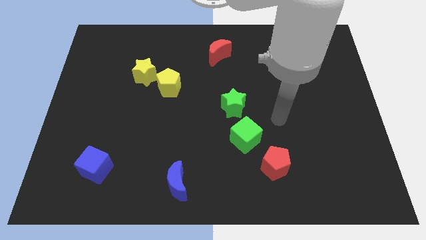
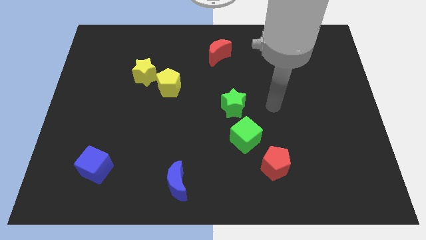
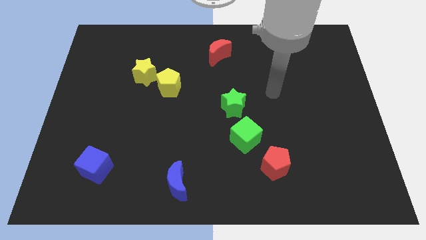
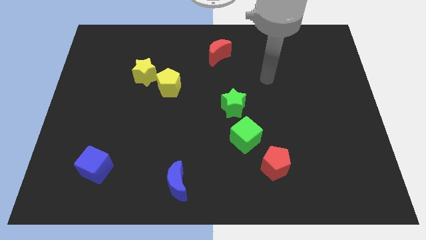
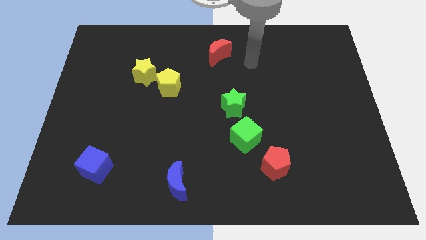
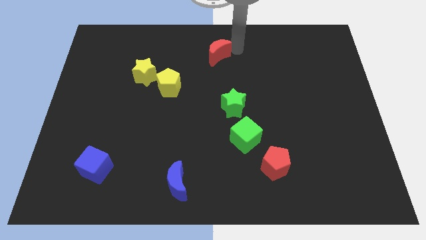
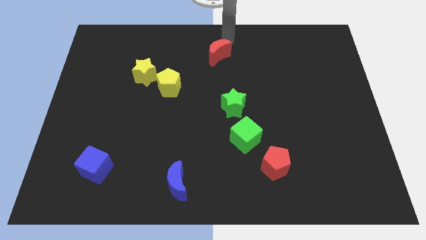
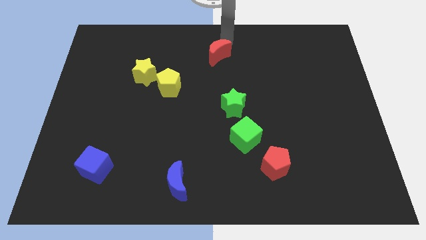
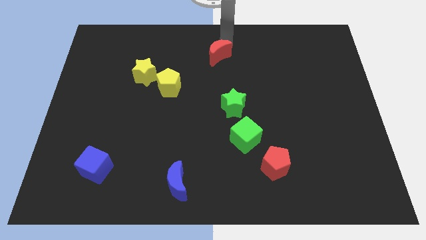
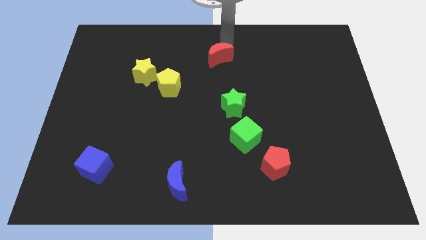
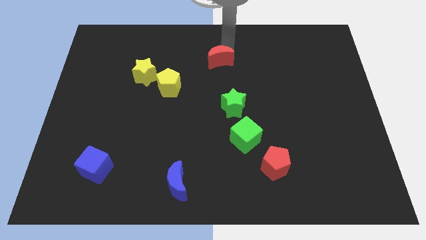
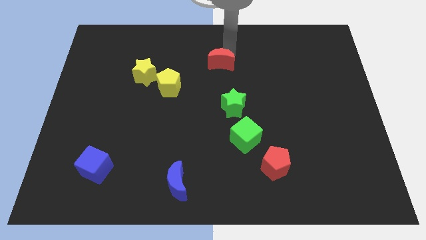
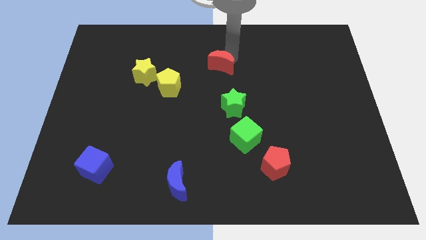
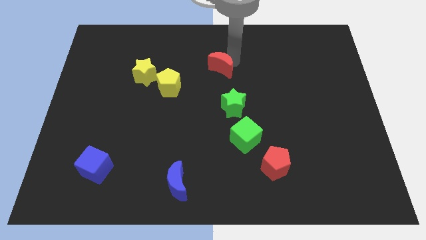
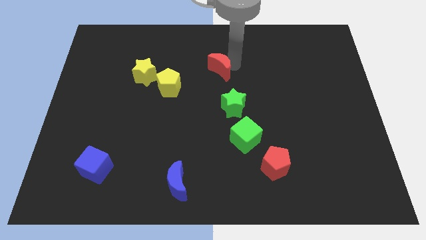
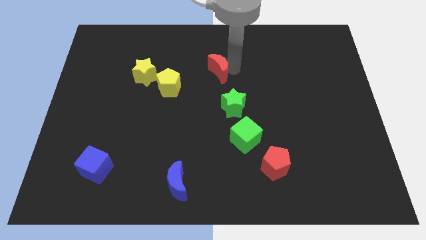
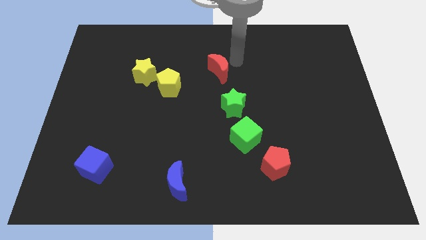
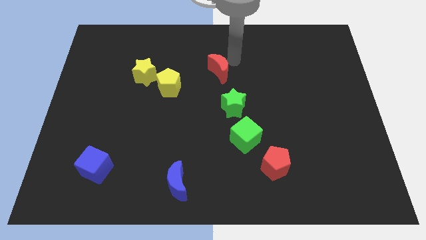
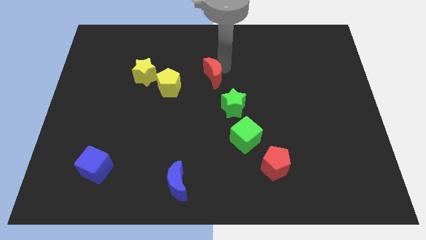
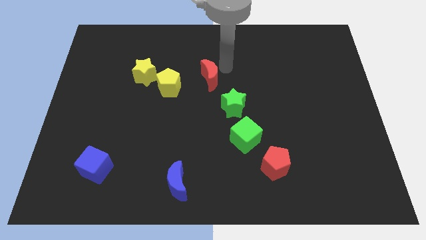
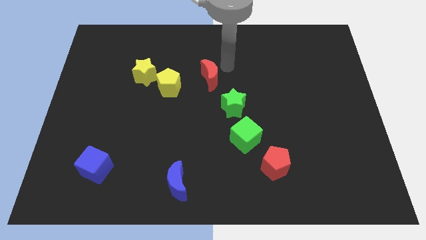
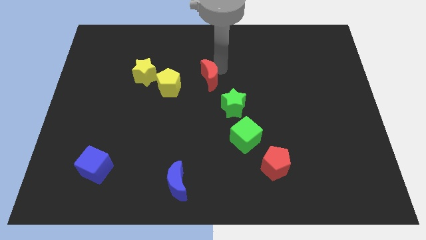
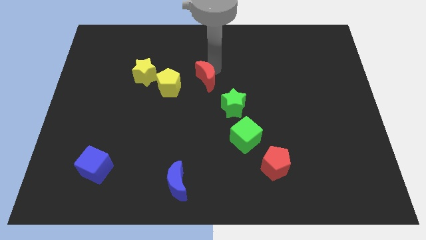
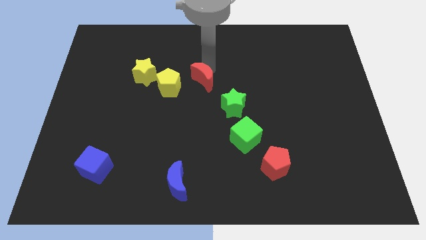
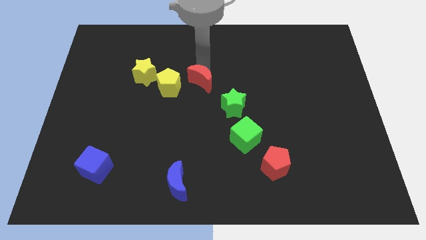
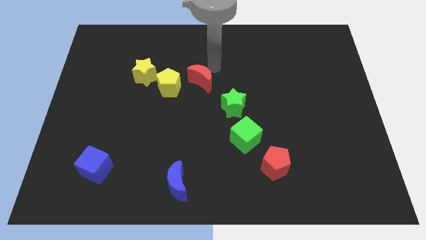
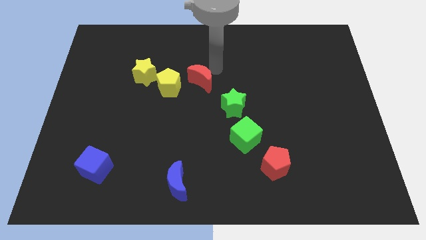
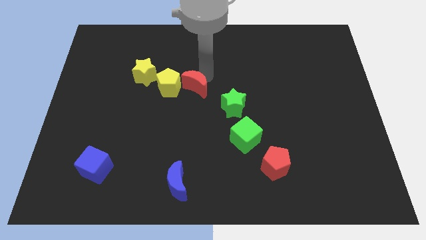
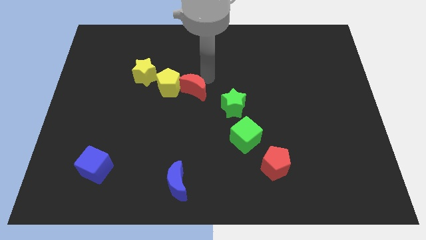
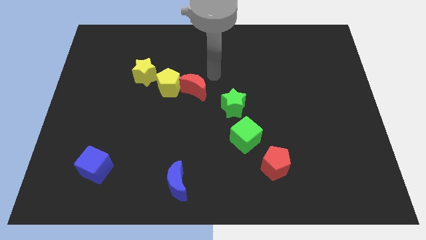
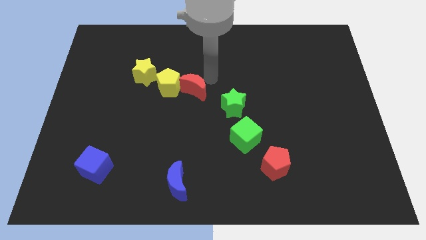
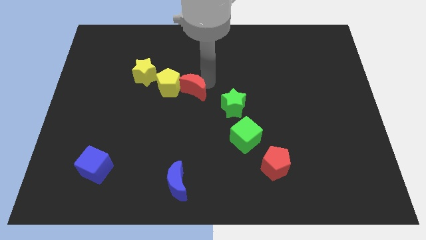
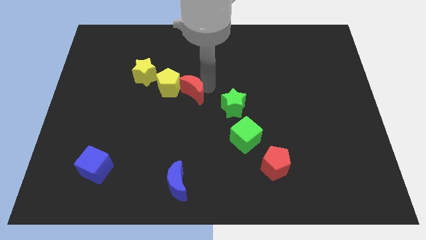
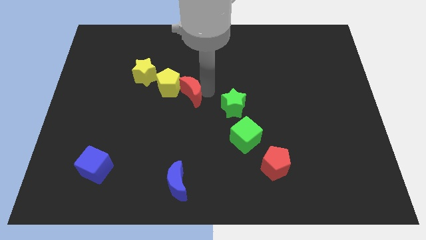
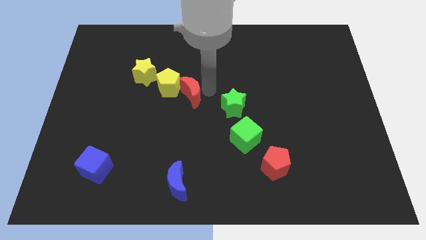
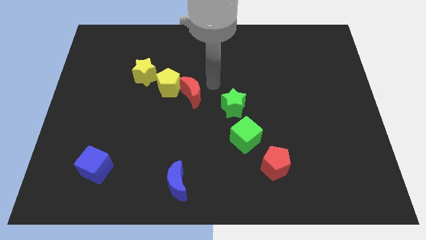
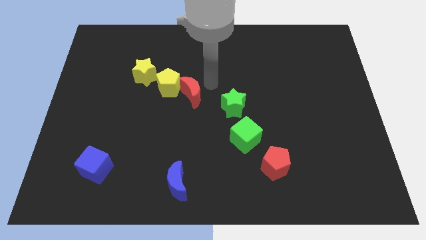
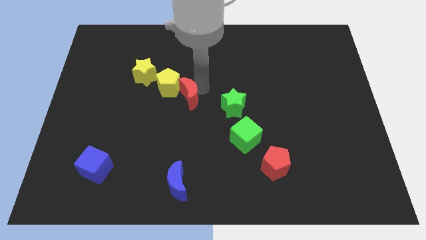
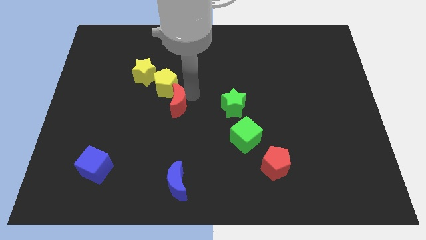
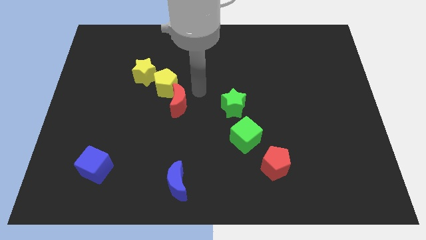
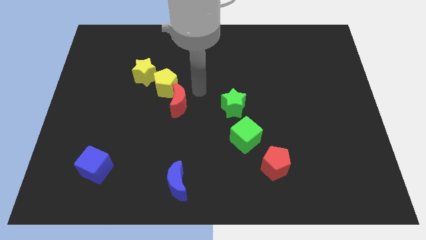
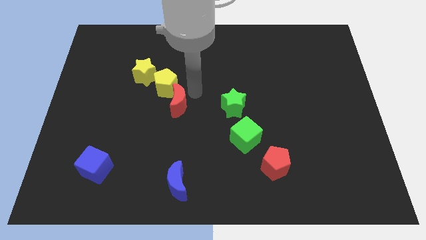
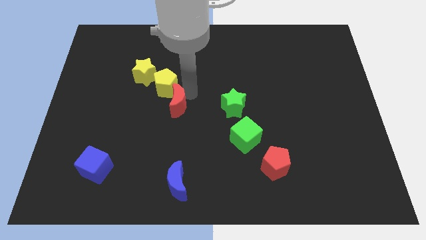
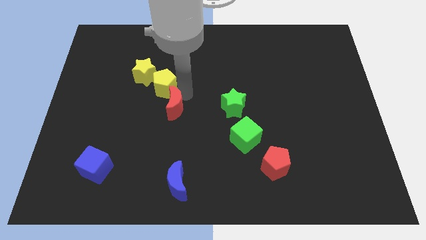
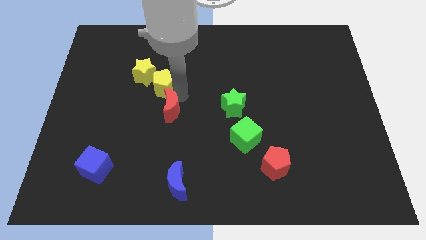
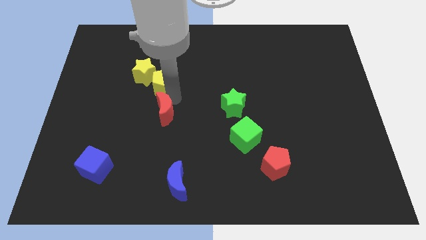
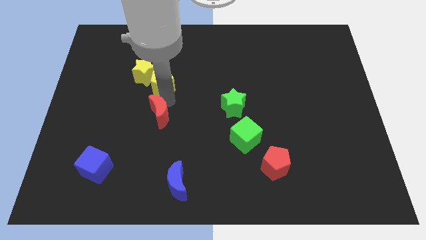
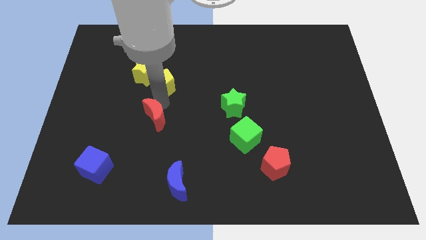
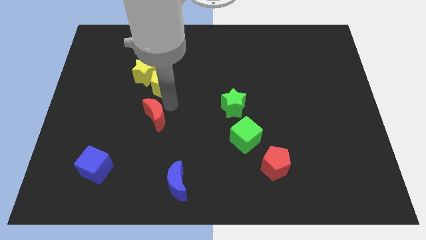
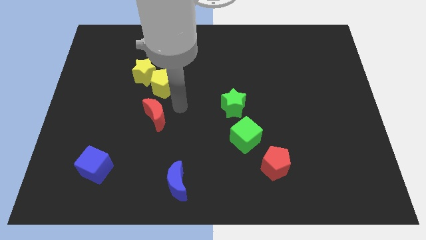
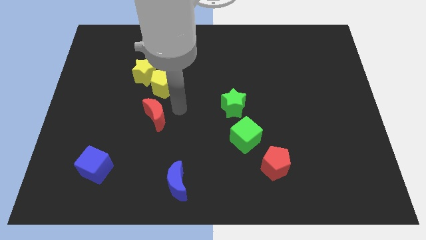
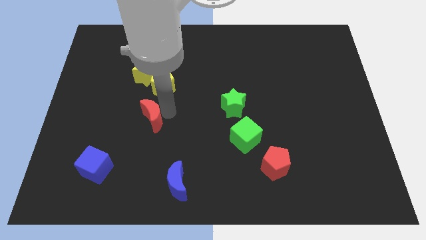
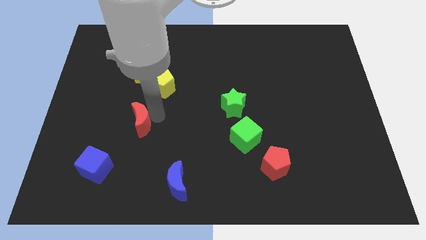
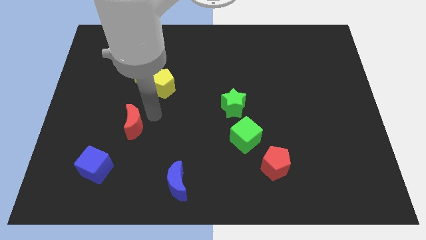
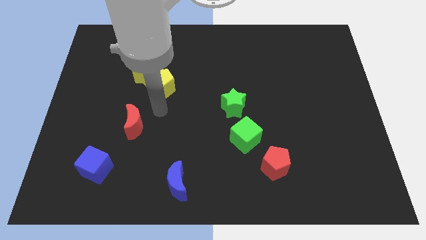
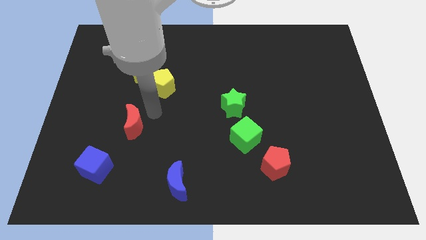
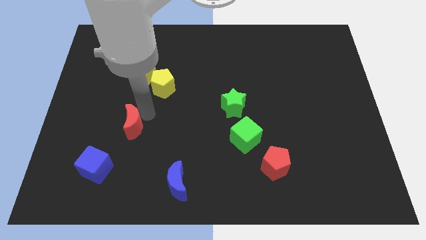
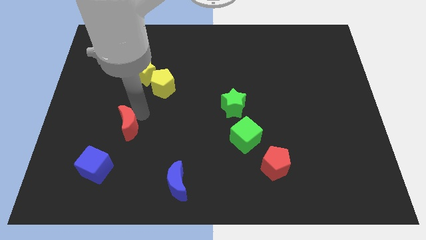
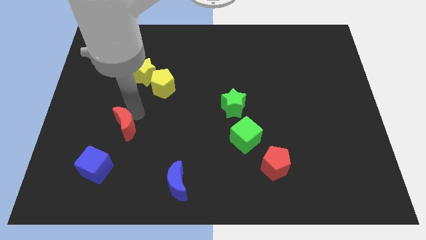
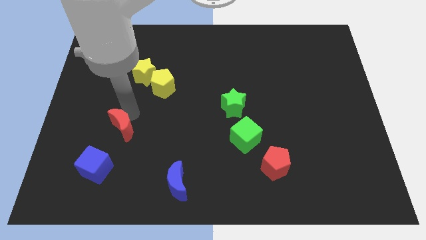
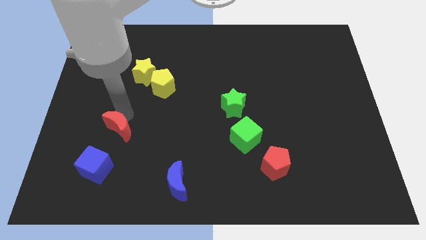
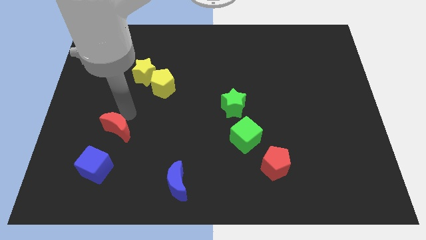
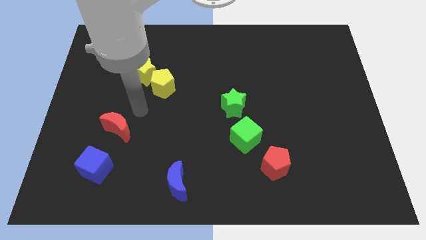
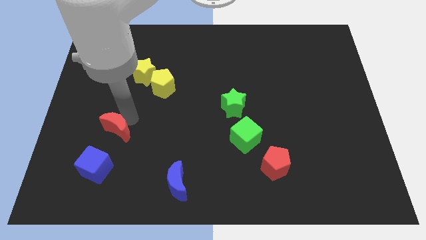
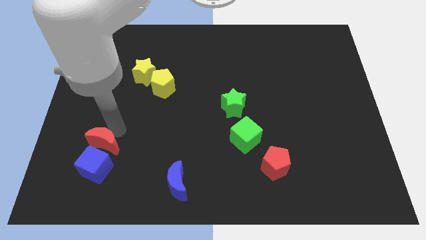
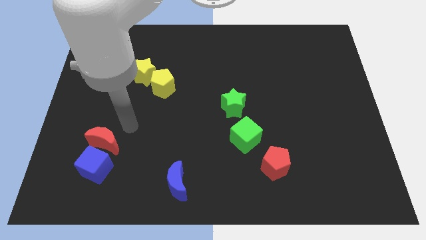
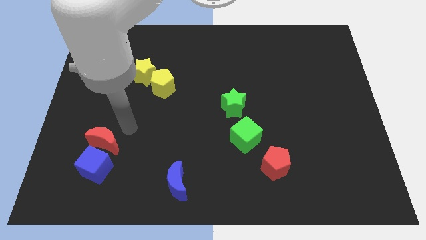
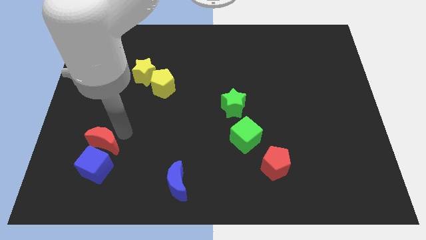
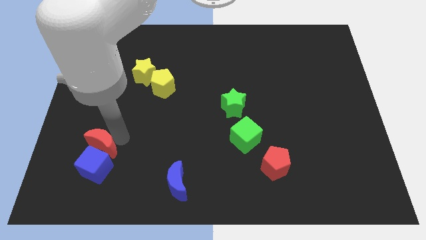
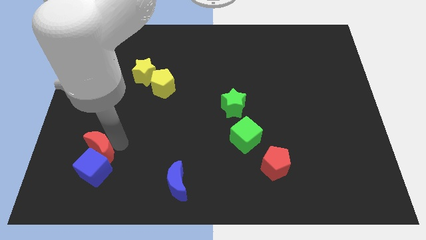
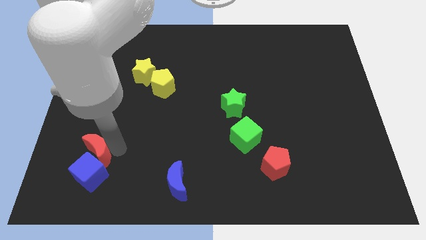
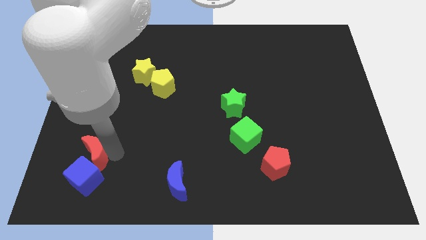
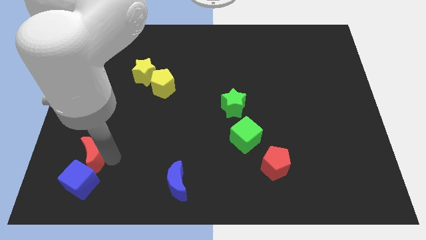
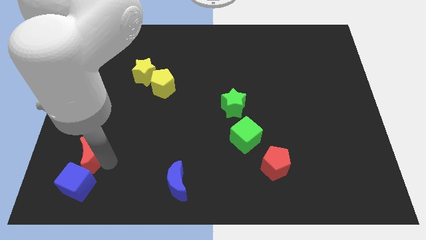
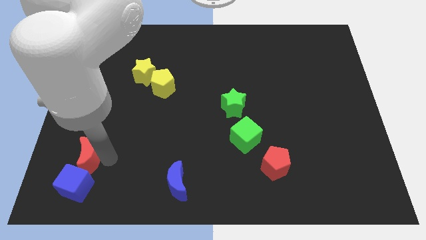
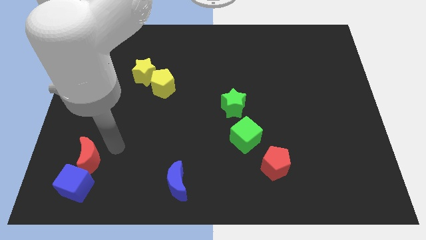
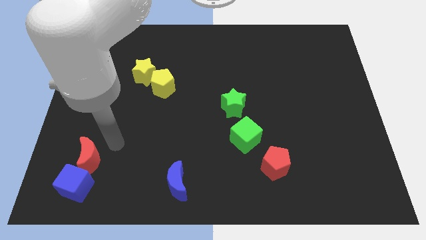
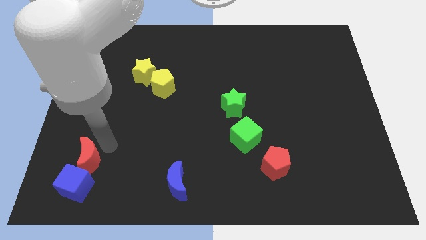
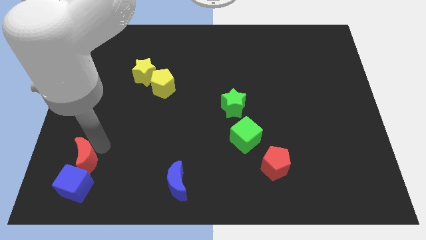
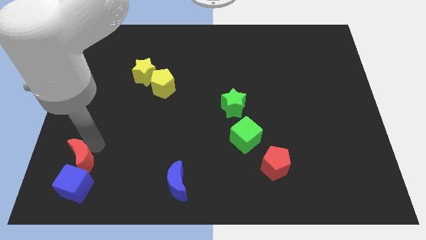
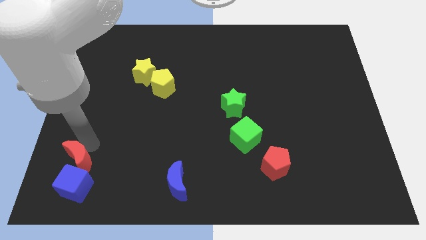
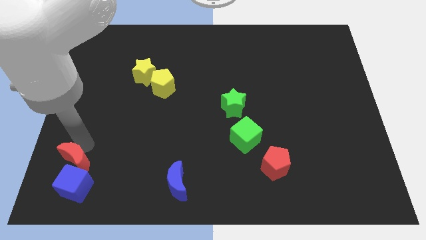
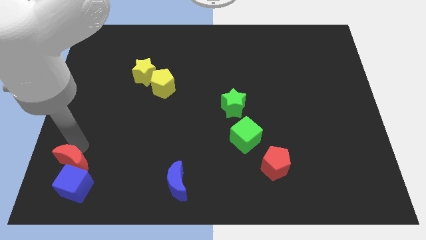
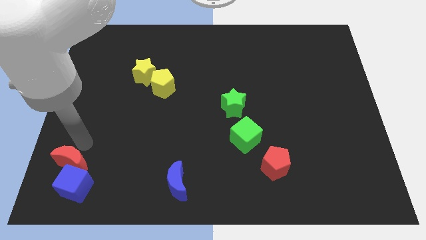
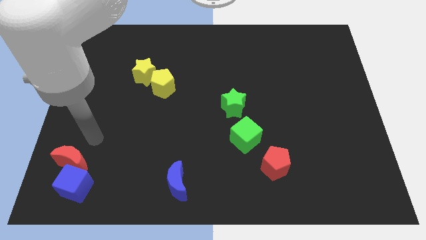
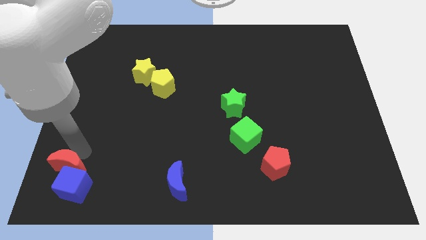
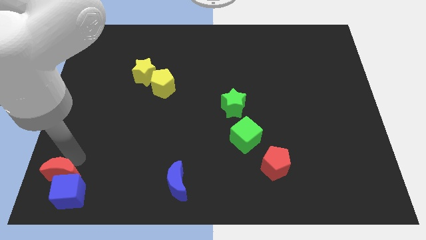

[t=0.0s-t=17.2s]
put the red moon to the lower left corner
